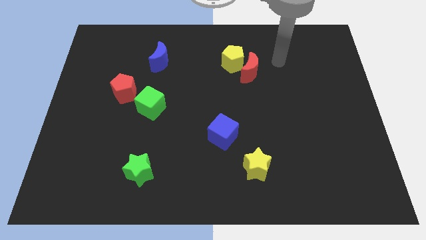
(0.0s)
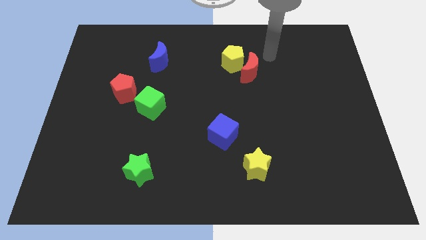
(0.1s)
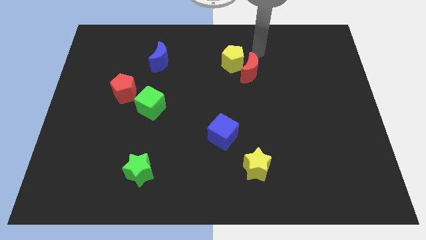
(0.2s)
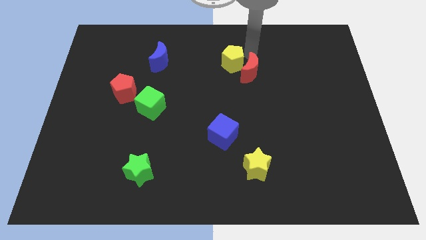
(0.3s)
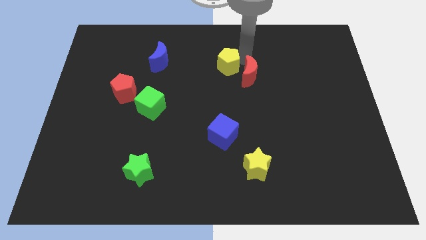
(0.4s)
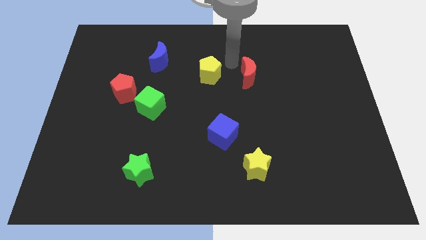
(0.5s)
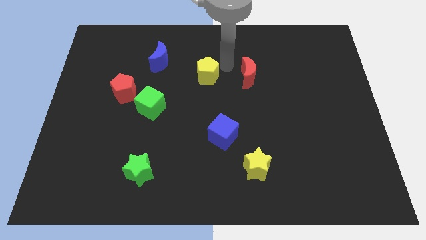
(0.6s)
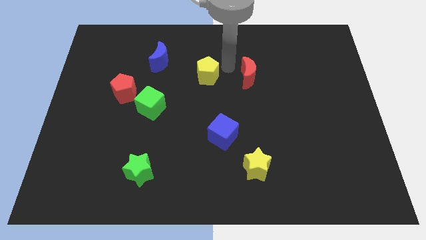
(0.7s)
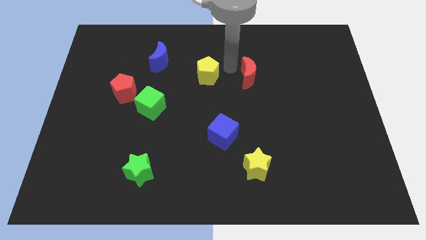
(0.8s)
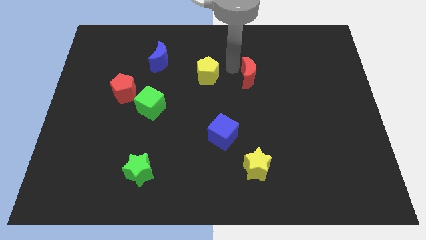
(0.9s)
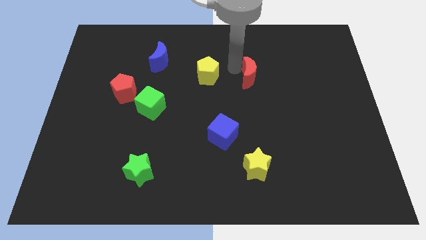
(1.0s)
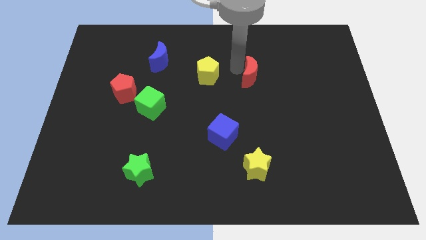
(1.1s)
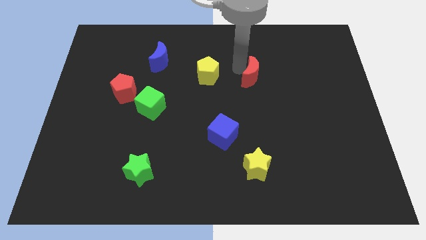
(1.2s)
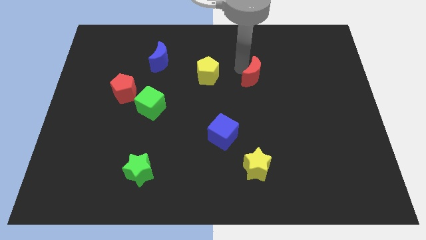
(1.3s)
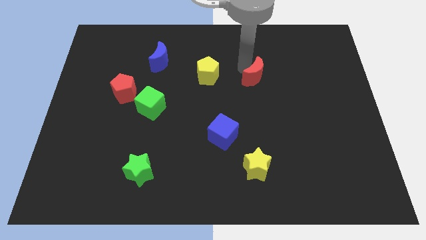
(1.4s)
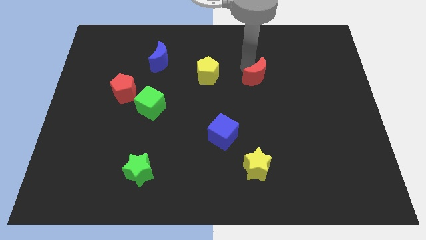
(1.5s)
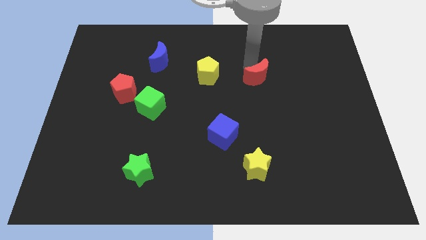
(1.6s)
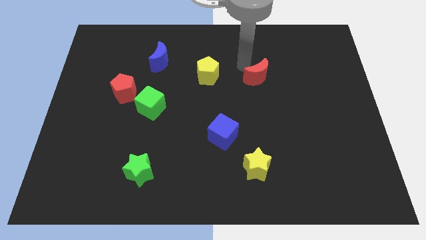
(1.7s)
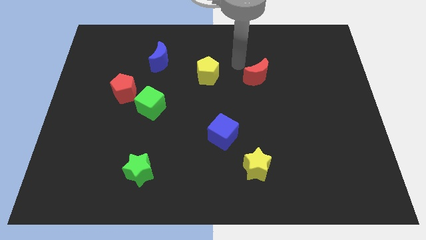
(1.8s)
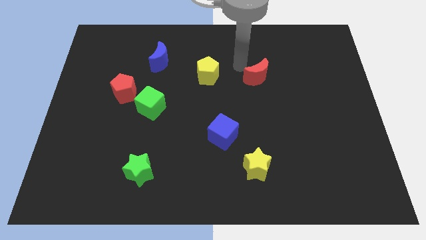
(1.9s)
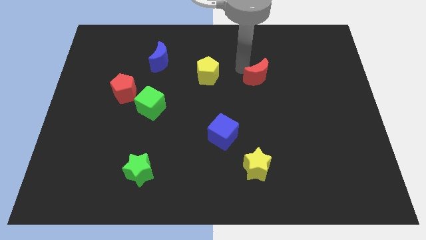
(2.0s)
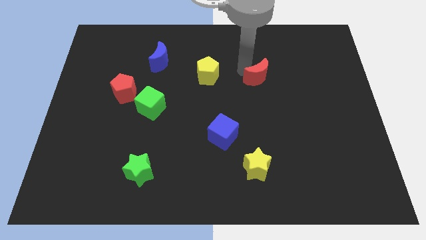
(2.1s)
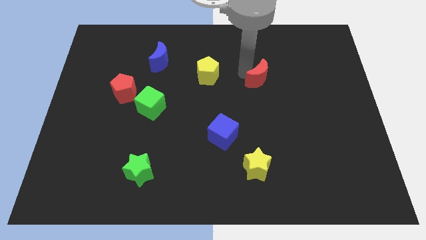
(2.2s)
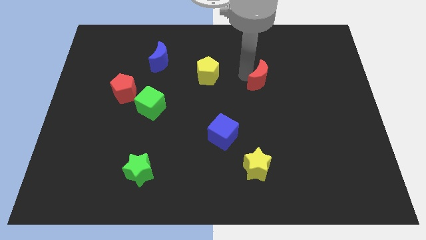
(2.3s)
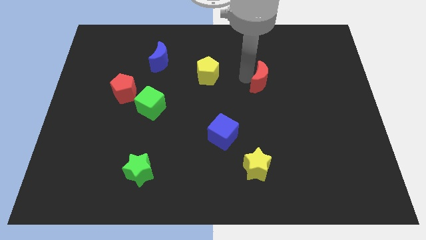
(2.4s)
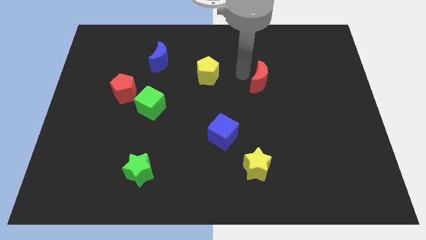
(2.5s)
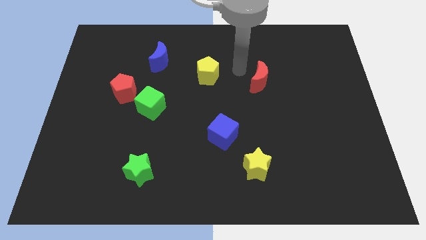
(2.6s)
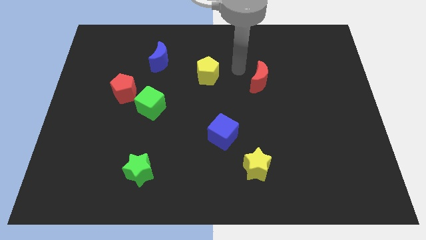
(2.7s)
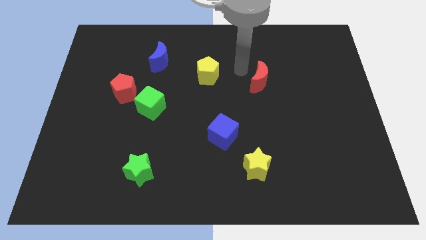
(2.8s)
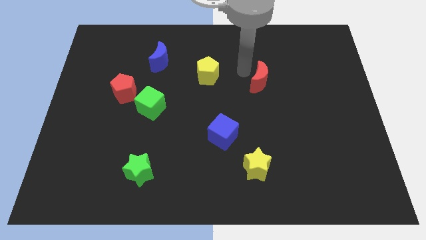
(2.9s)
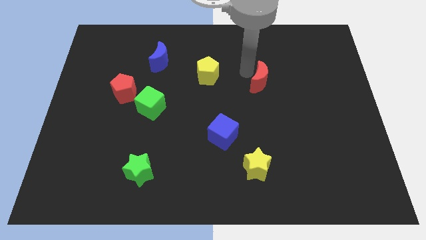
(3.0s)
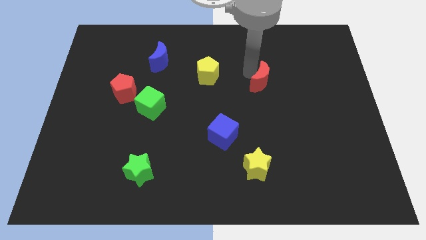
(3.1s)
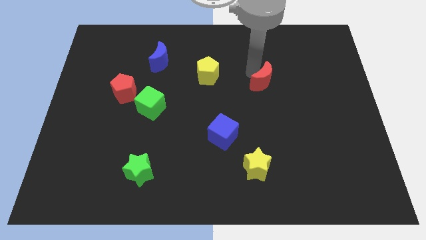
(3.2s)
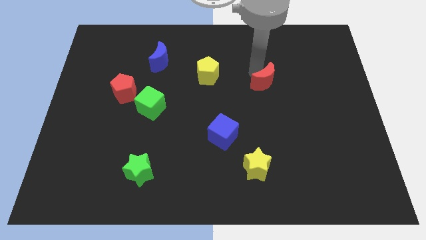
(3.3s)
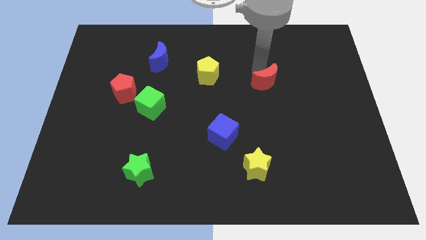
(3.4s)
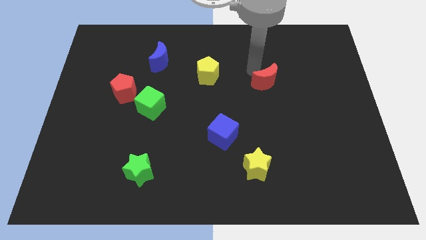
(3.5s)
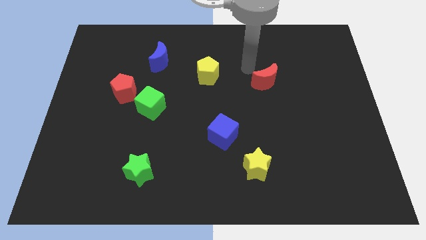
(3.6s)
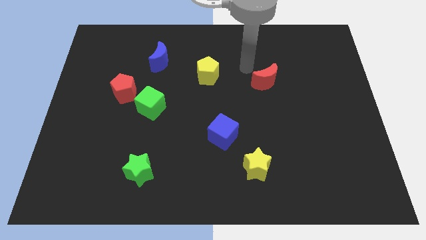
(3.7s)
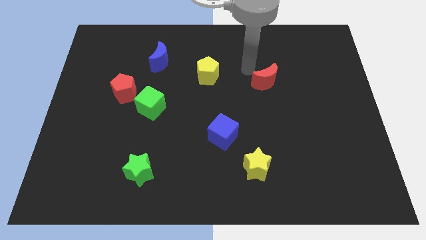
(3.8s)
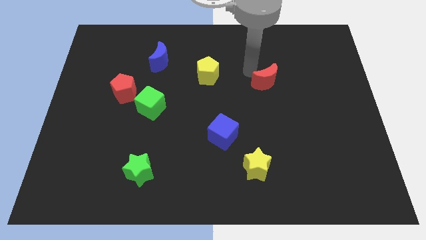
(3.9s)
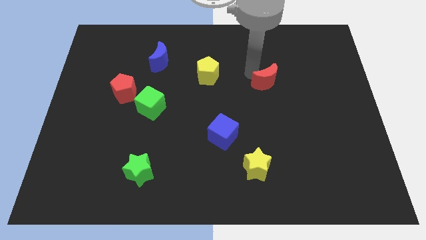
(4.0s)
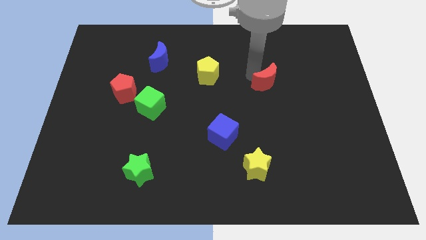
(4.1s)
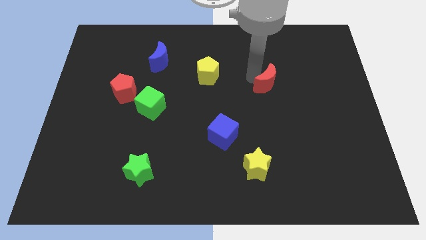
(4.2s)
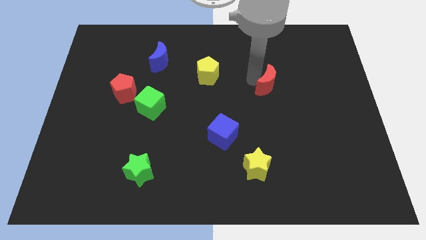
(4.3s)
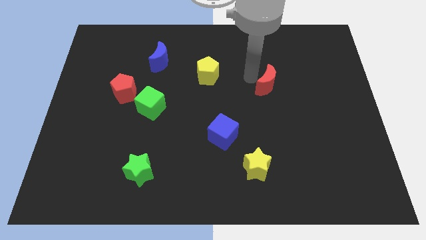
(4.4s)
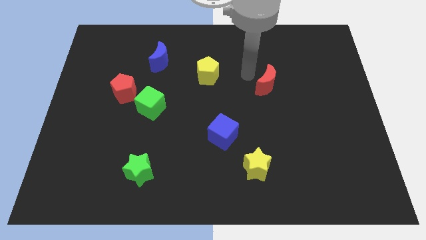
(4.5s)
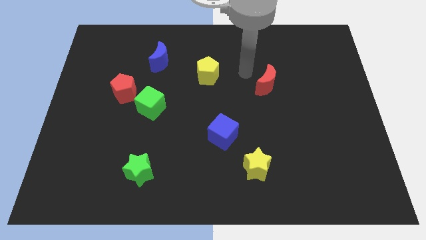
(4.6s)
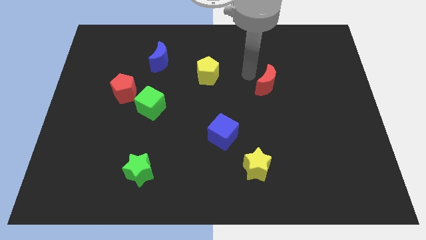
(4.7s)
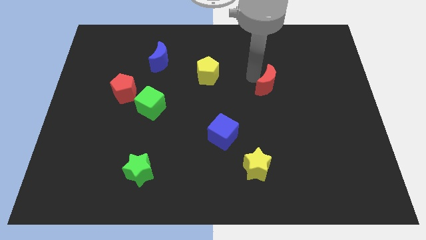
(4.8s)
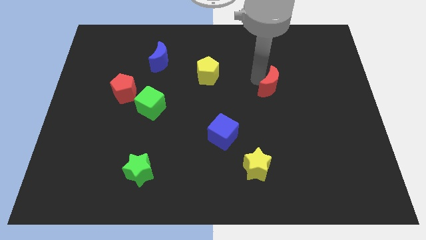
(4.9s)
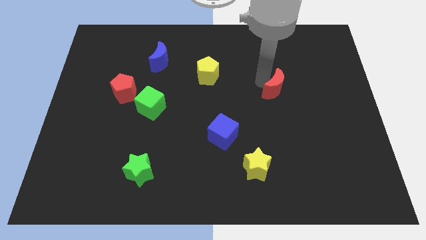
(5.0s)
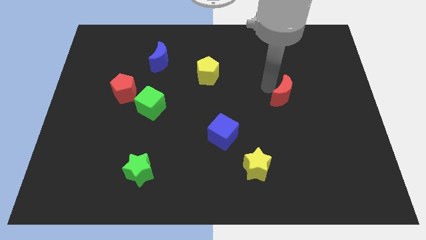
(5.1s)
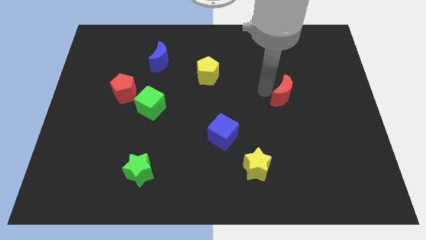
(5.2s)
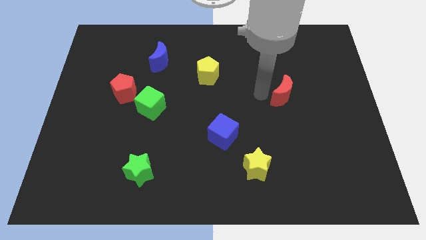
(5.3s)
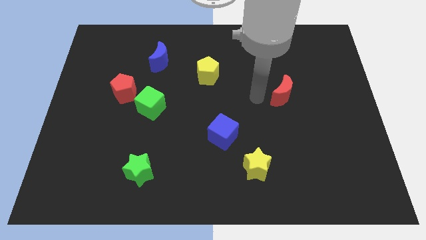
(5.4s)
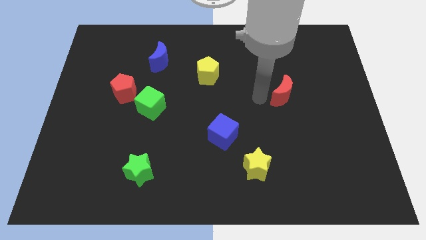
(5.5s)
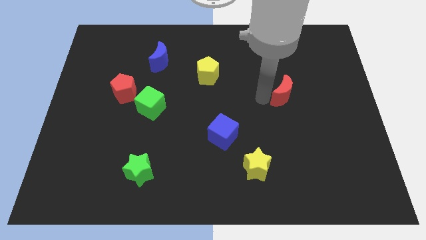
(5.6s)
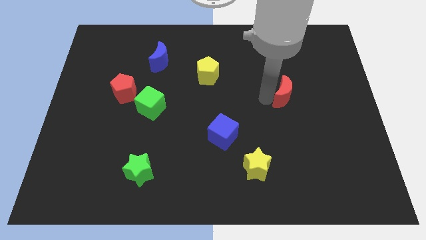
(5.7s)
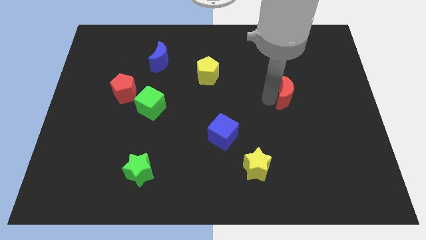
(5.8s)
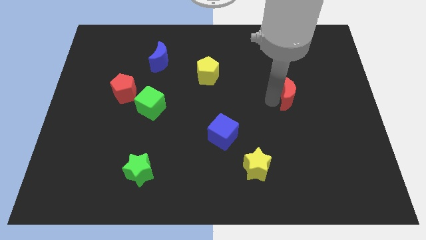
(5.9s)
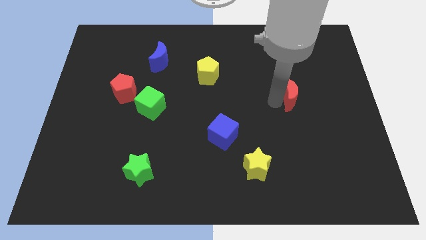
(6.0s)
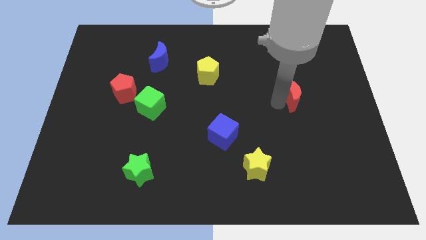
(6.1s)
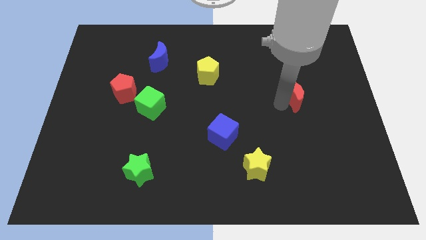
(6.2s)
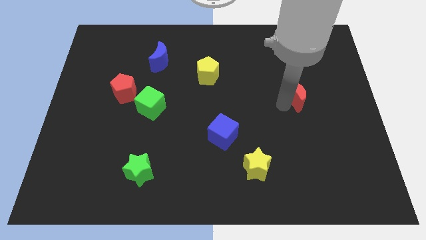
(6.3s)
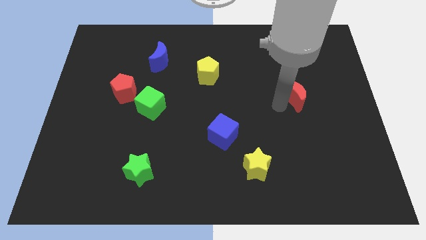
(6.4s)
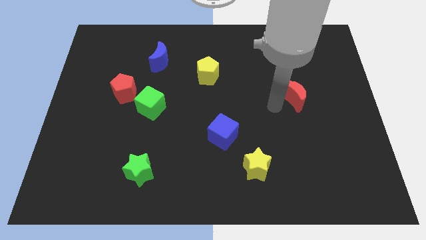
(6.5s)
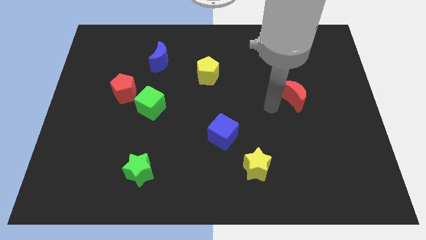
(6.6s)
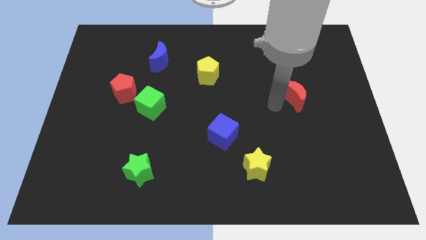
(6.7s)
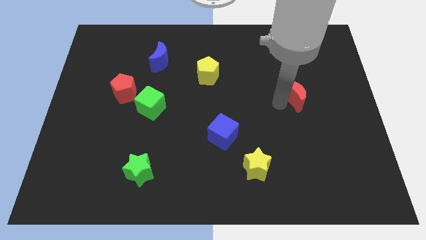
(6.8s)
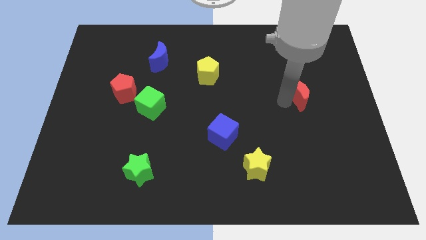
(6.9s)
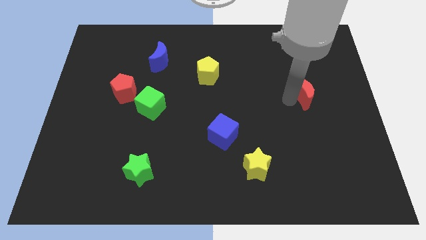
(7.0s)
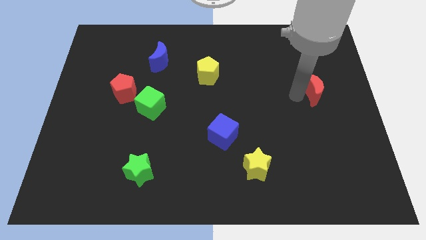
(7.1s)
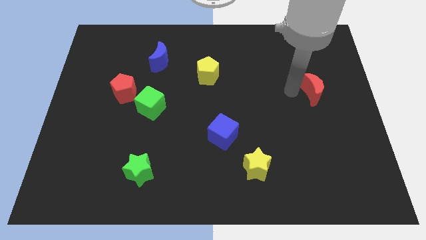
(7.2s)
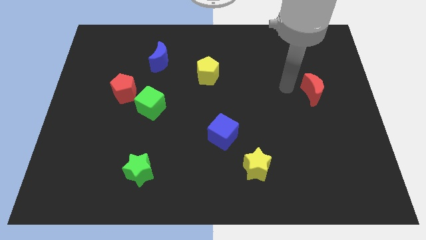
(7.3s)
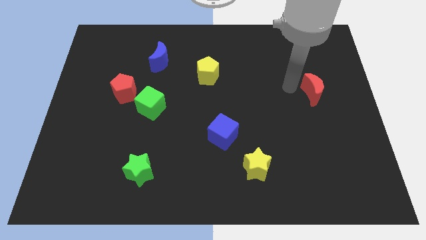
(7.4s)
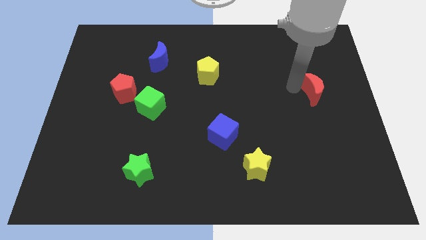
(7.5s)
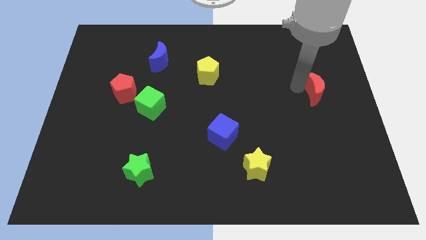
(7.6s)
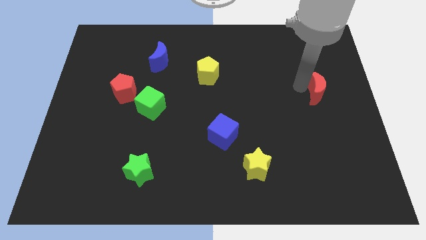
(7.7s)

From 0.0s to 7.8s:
push the red moon to the right side of the board
